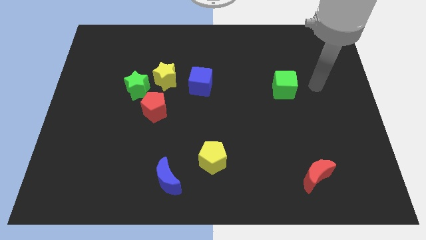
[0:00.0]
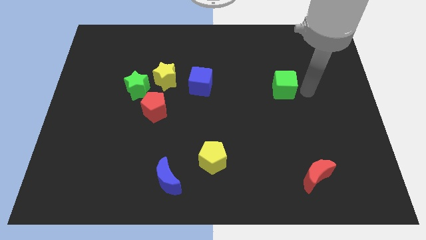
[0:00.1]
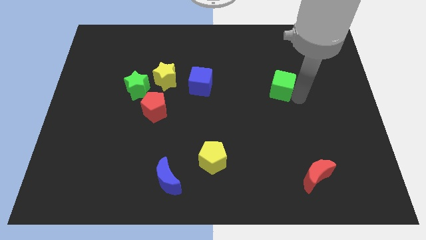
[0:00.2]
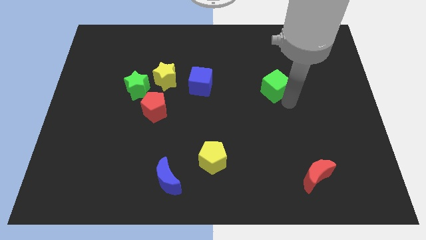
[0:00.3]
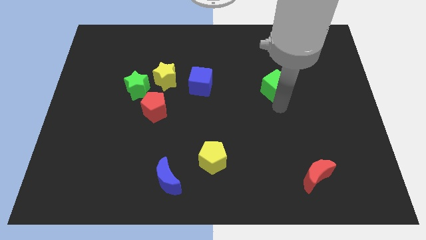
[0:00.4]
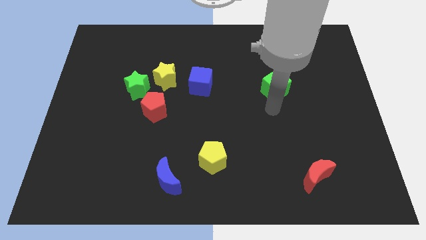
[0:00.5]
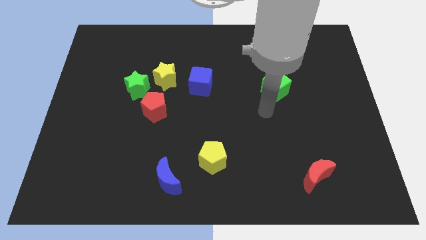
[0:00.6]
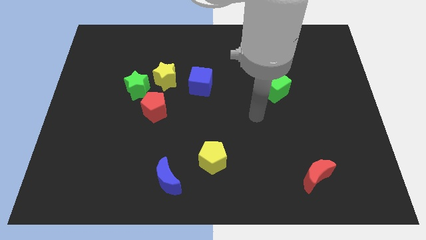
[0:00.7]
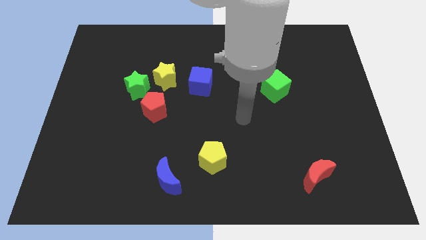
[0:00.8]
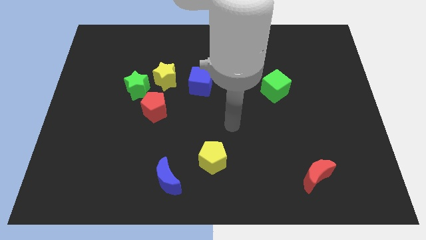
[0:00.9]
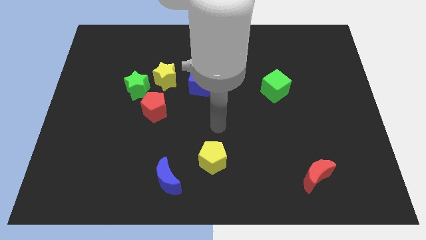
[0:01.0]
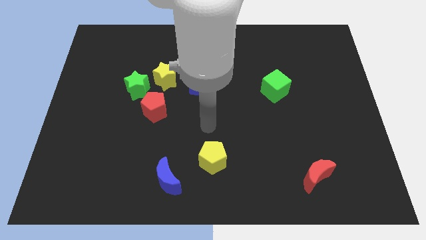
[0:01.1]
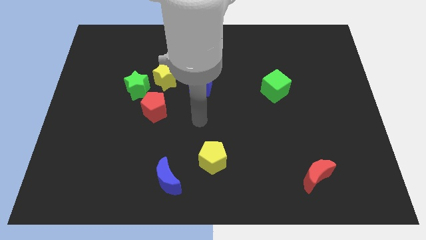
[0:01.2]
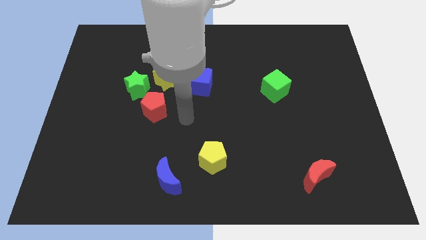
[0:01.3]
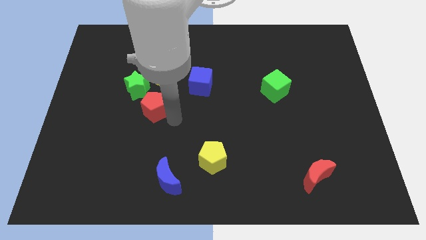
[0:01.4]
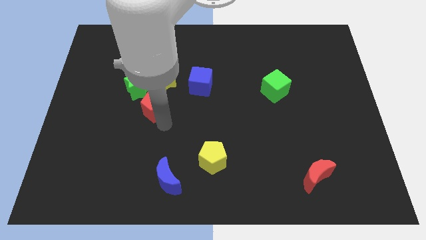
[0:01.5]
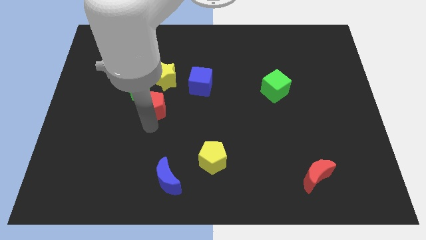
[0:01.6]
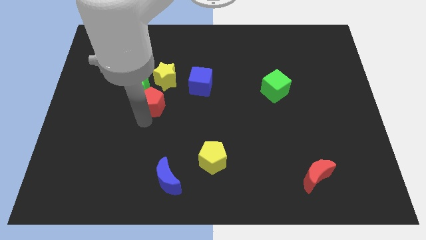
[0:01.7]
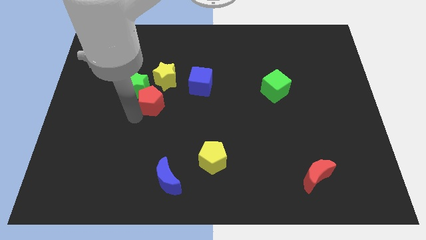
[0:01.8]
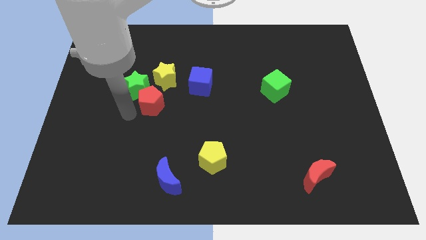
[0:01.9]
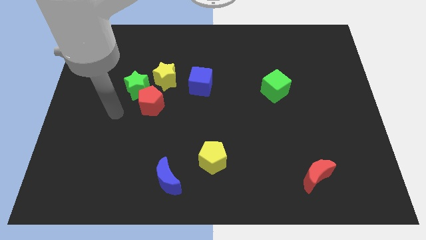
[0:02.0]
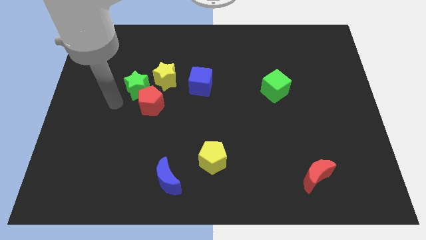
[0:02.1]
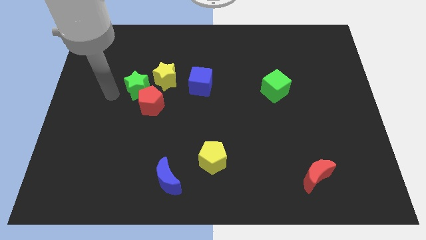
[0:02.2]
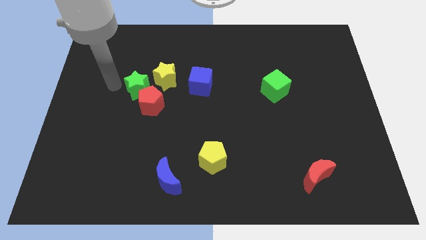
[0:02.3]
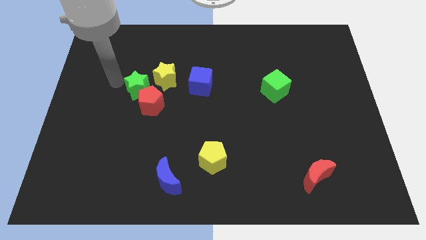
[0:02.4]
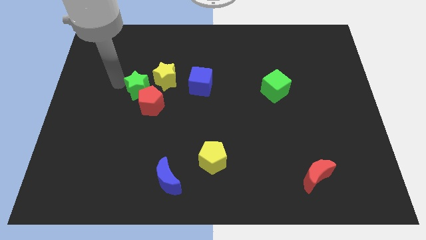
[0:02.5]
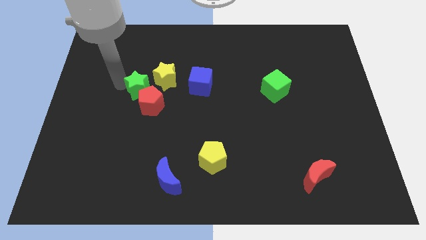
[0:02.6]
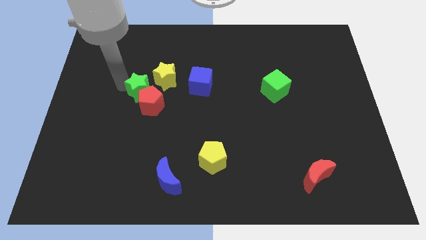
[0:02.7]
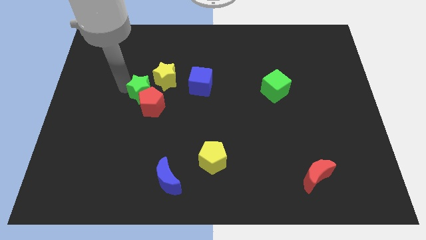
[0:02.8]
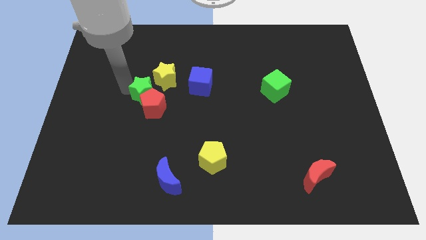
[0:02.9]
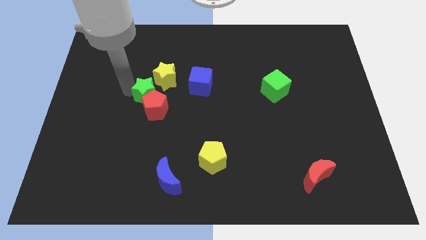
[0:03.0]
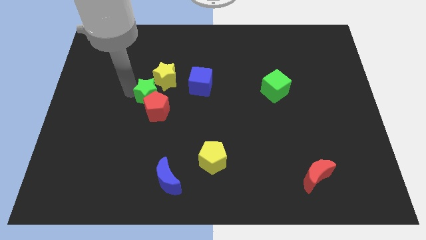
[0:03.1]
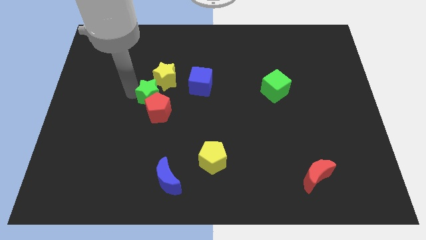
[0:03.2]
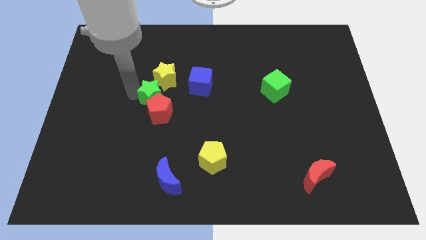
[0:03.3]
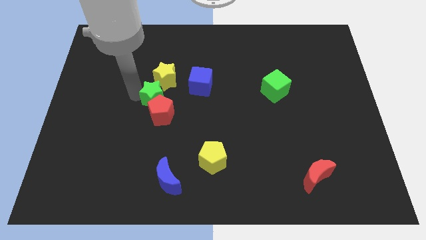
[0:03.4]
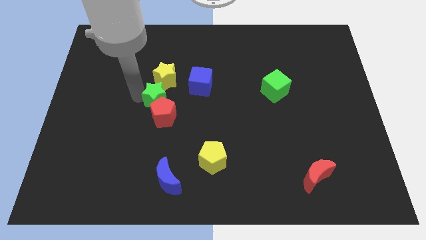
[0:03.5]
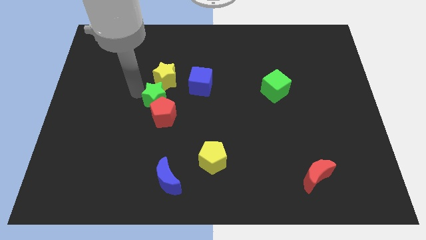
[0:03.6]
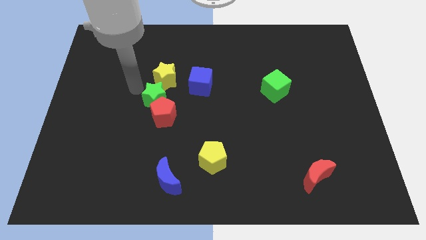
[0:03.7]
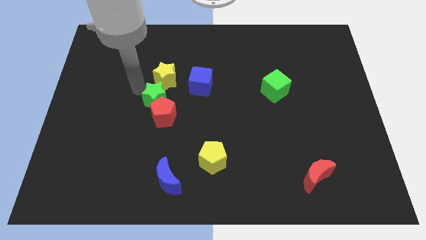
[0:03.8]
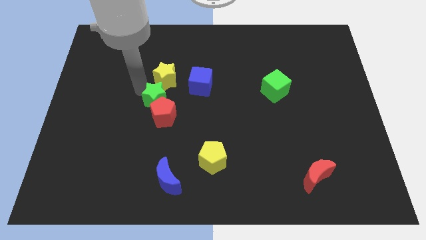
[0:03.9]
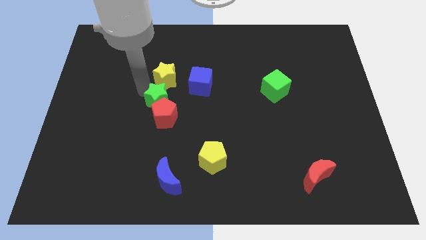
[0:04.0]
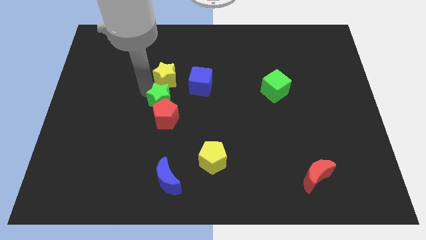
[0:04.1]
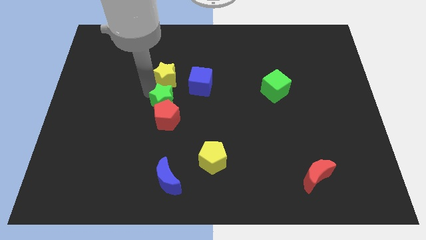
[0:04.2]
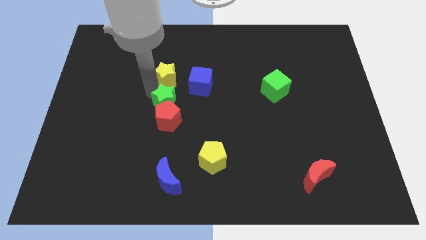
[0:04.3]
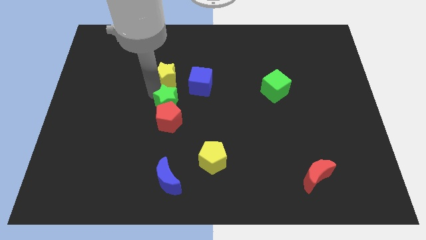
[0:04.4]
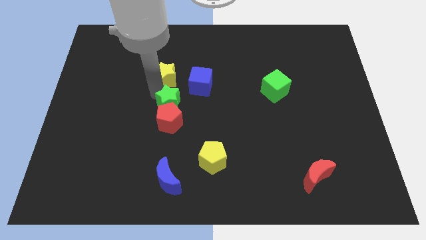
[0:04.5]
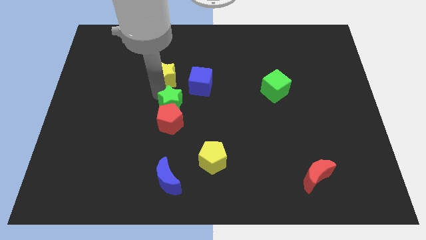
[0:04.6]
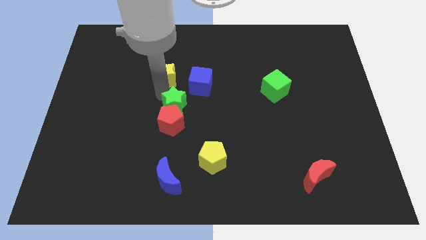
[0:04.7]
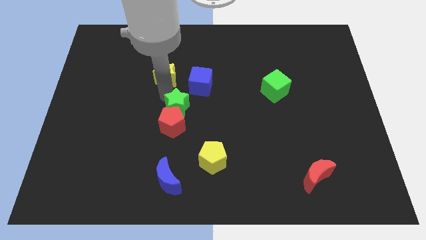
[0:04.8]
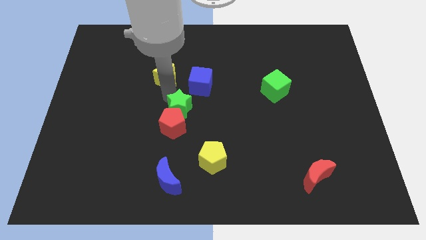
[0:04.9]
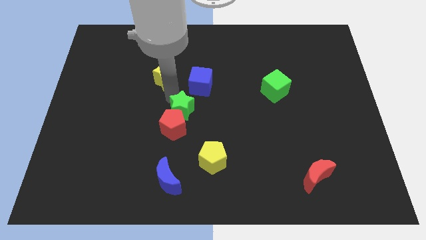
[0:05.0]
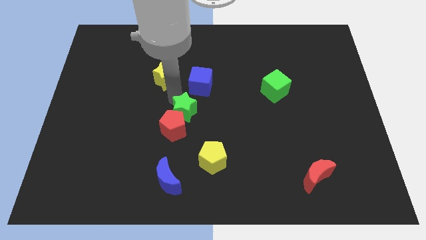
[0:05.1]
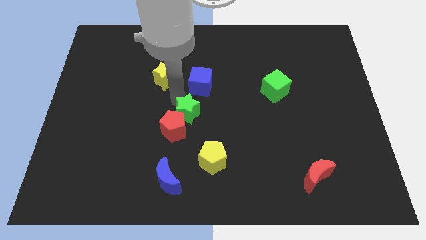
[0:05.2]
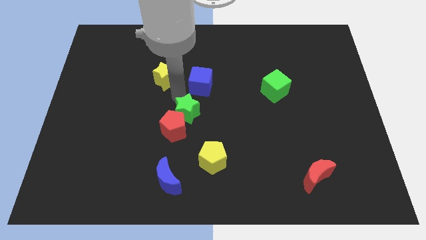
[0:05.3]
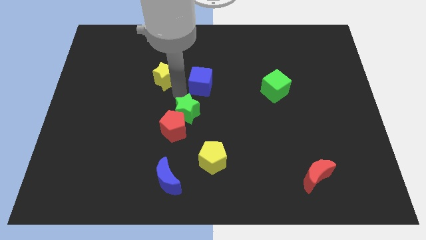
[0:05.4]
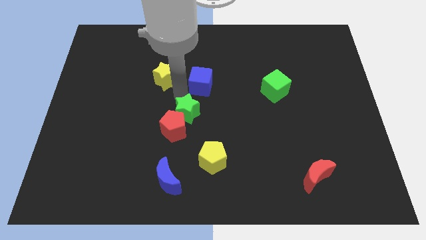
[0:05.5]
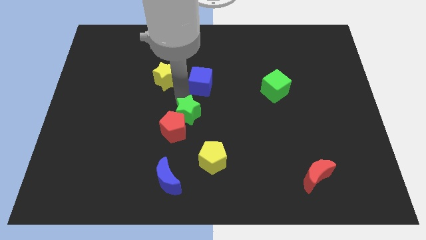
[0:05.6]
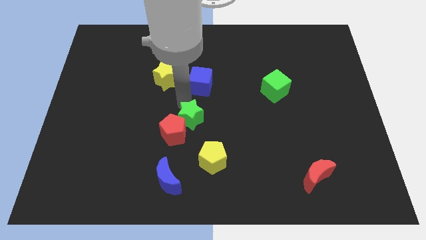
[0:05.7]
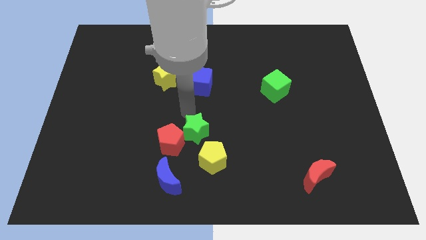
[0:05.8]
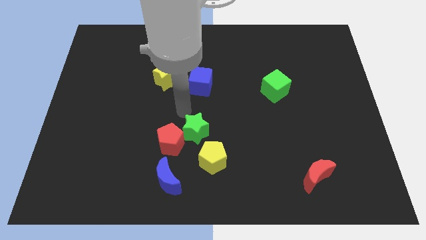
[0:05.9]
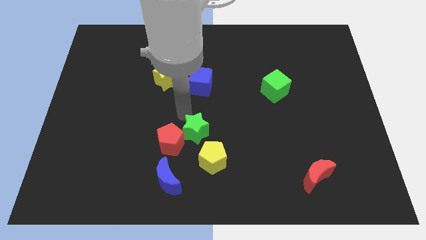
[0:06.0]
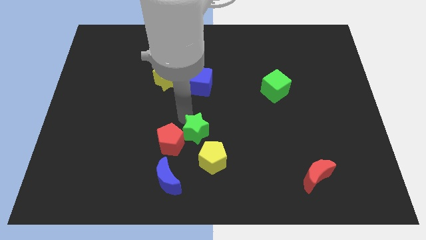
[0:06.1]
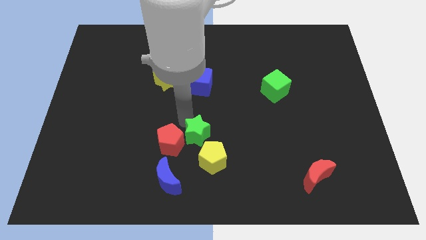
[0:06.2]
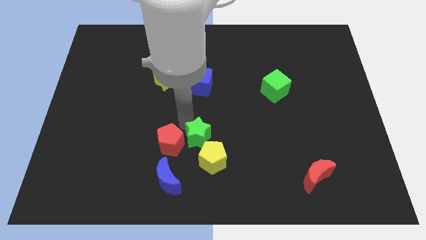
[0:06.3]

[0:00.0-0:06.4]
push the green star next to the yellow pentagon

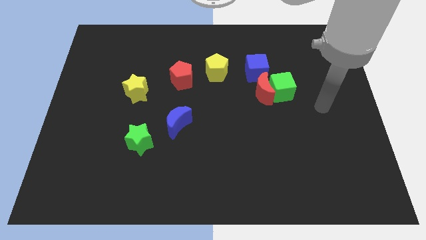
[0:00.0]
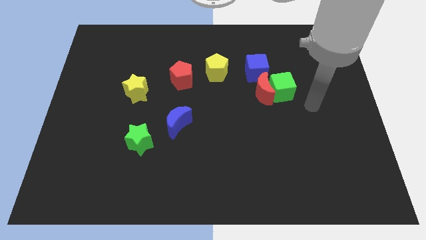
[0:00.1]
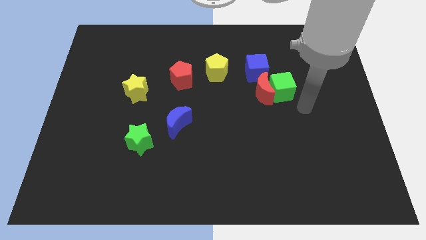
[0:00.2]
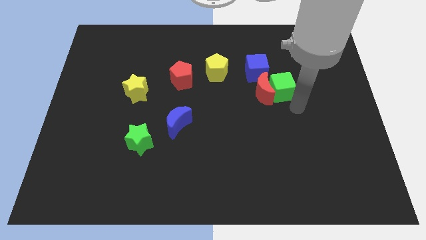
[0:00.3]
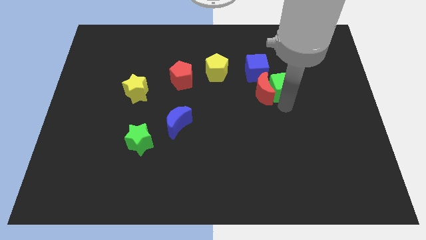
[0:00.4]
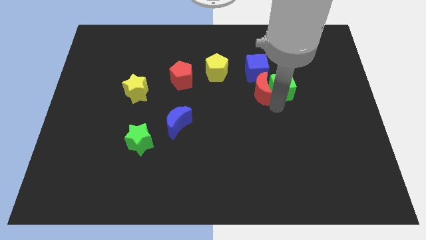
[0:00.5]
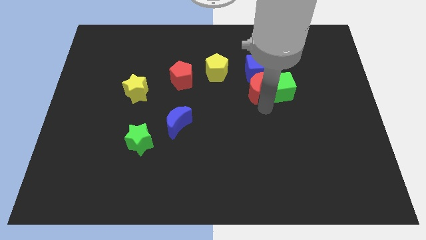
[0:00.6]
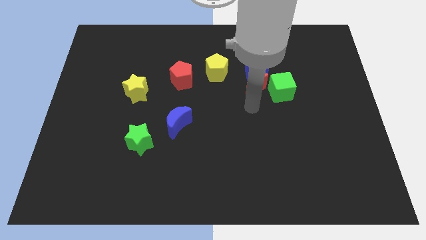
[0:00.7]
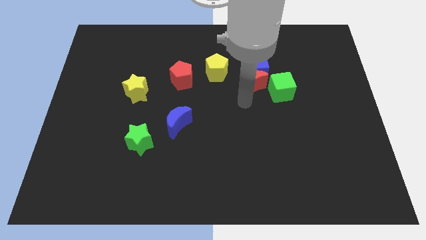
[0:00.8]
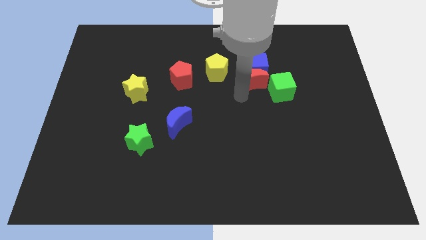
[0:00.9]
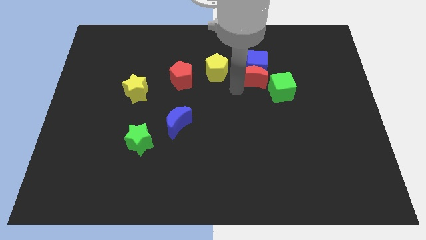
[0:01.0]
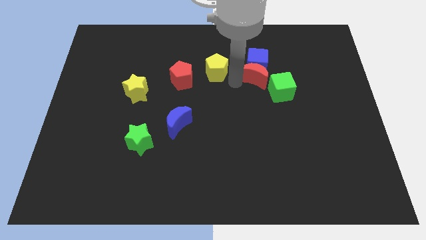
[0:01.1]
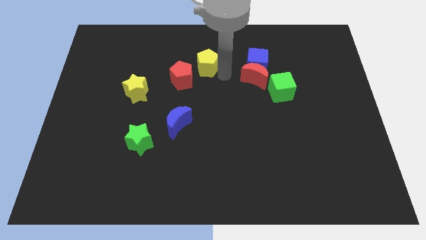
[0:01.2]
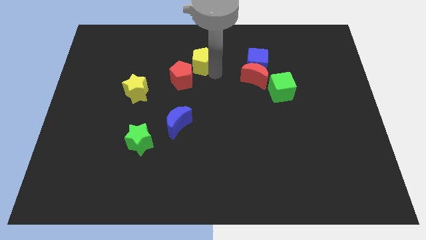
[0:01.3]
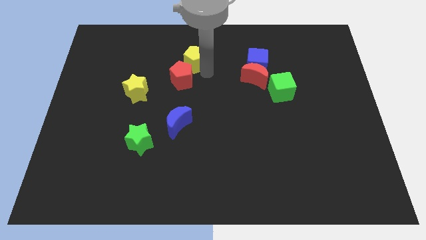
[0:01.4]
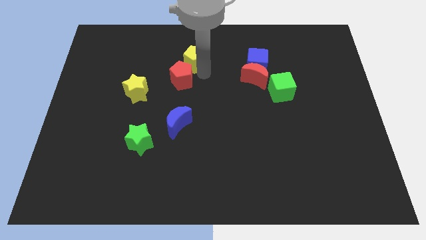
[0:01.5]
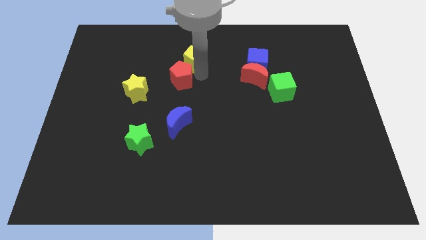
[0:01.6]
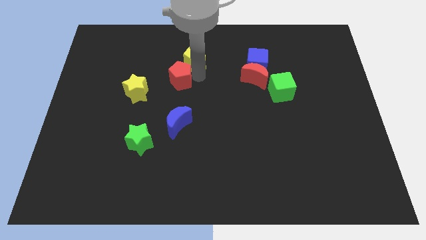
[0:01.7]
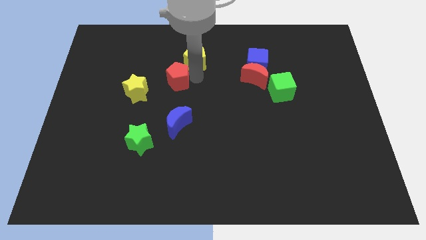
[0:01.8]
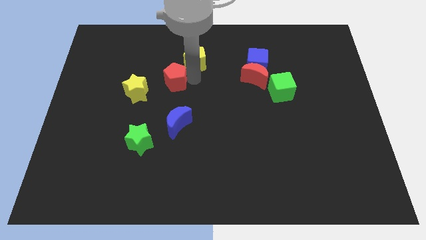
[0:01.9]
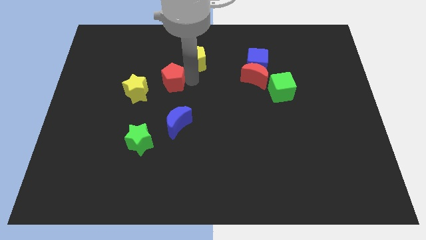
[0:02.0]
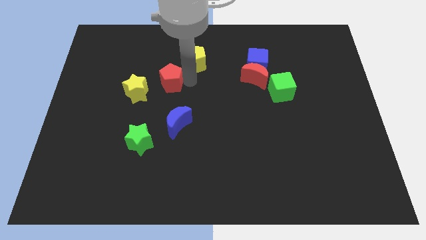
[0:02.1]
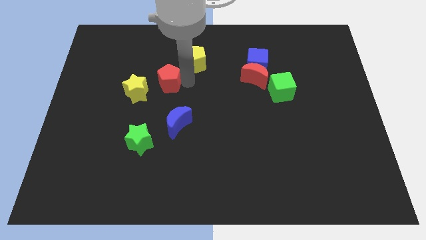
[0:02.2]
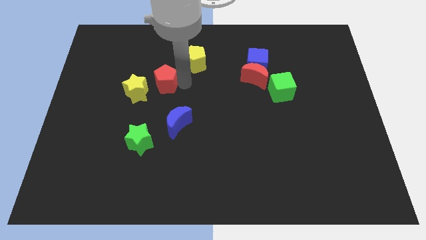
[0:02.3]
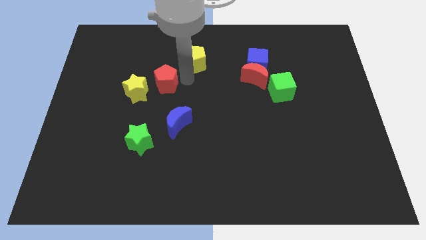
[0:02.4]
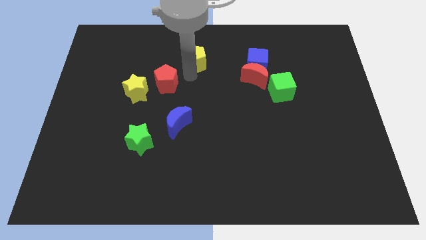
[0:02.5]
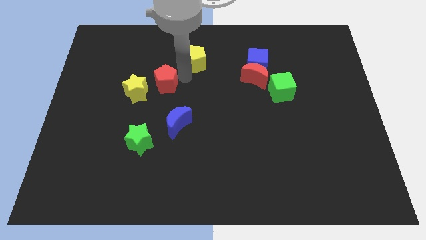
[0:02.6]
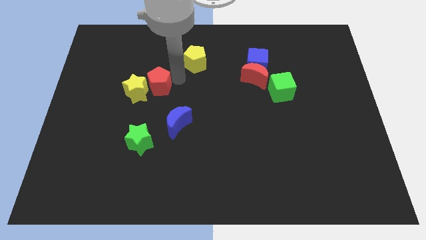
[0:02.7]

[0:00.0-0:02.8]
move the red pentagon towards the yellow star
